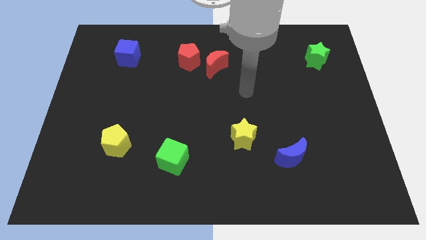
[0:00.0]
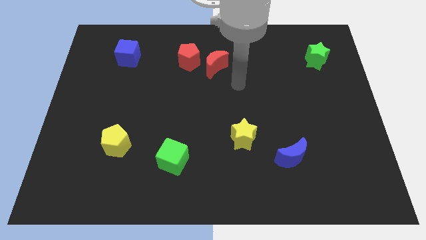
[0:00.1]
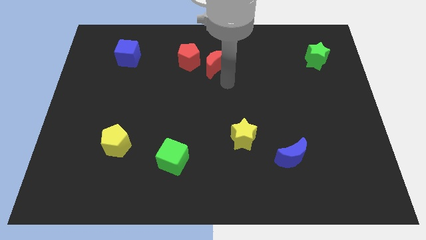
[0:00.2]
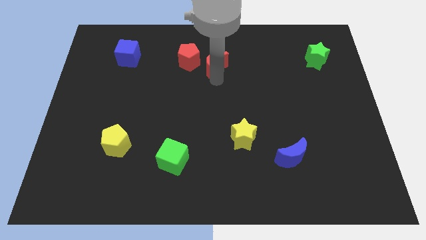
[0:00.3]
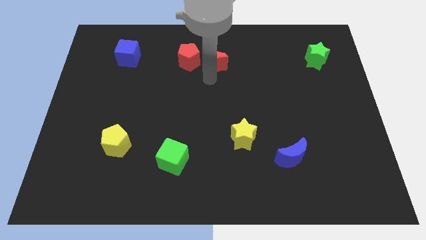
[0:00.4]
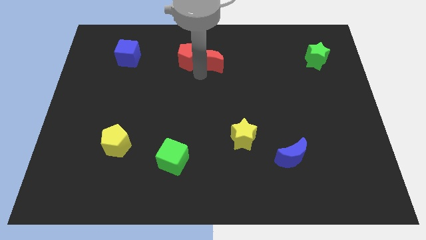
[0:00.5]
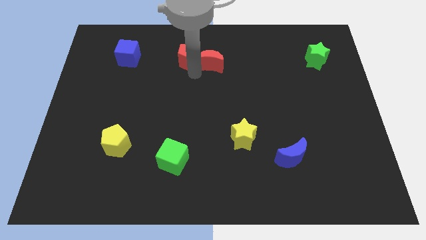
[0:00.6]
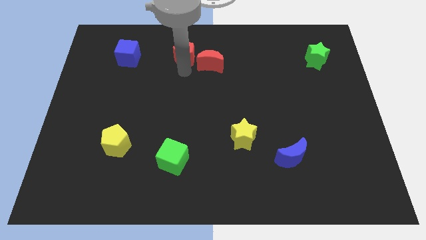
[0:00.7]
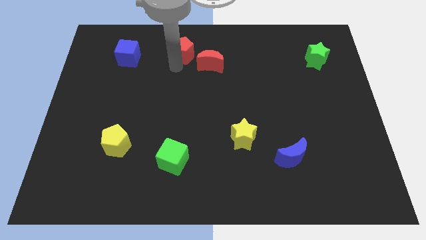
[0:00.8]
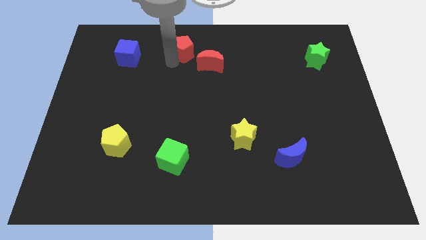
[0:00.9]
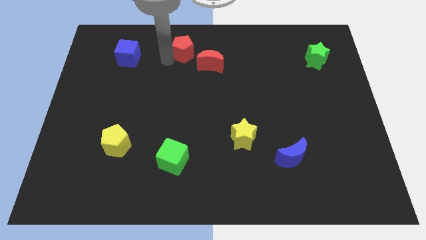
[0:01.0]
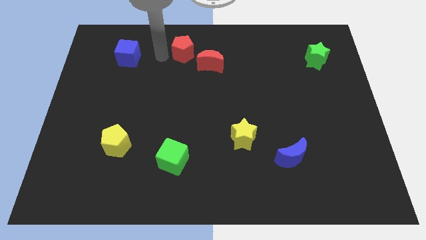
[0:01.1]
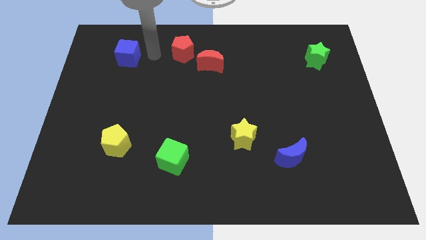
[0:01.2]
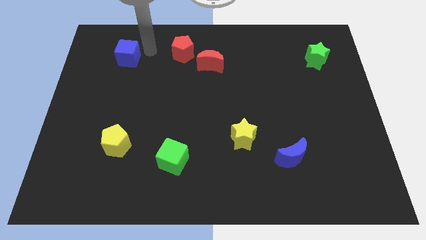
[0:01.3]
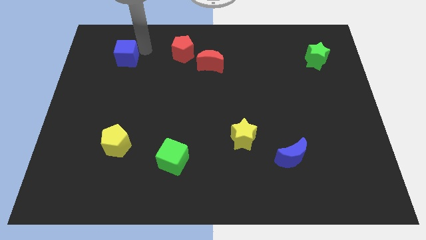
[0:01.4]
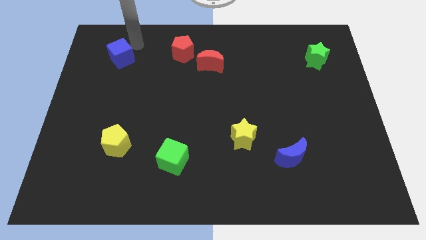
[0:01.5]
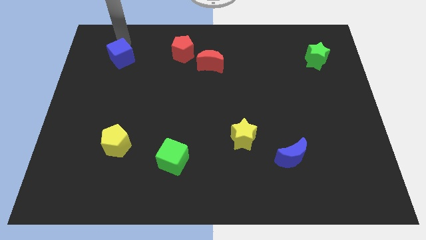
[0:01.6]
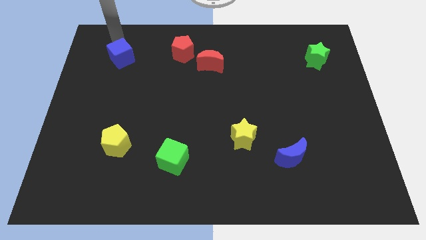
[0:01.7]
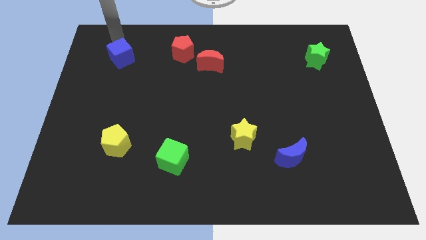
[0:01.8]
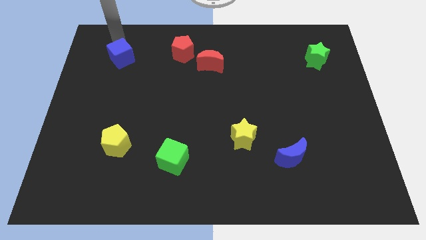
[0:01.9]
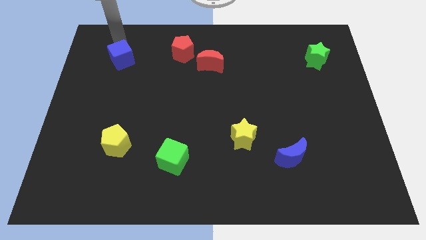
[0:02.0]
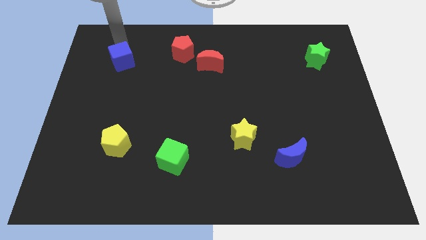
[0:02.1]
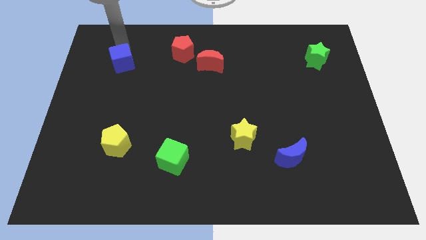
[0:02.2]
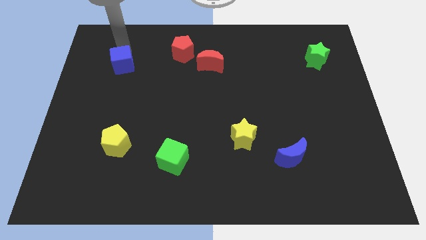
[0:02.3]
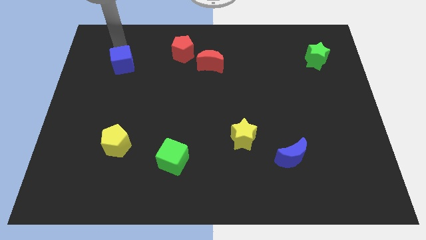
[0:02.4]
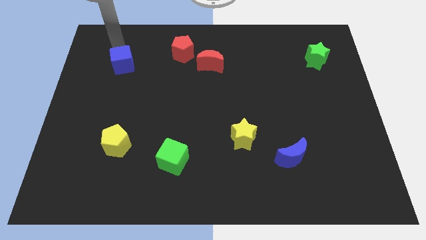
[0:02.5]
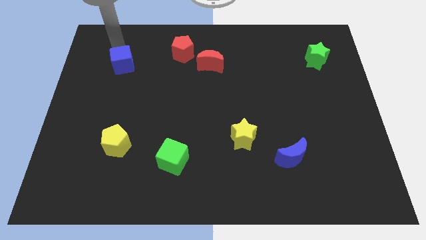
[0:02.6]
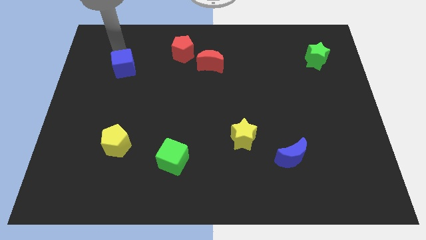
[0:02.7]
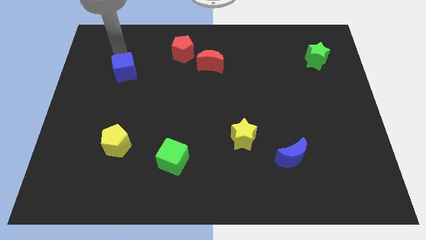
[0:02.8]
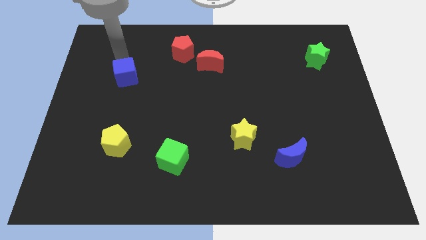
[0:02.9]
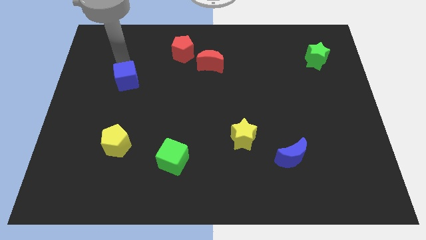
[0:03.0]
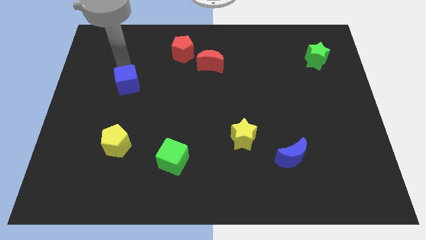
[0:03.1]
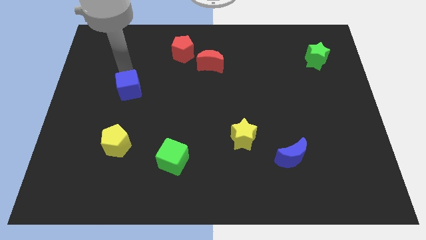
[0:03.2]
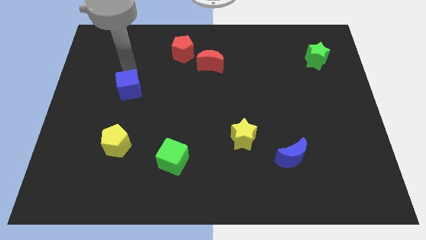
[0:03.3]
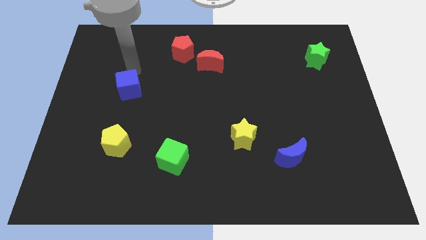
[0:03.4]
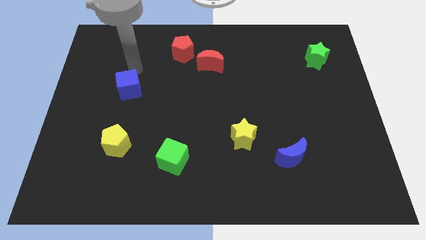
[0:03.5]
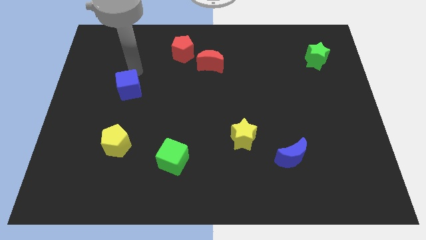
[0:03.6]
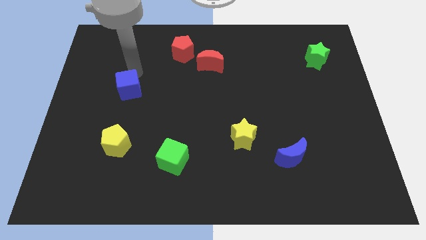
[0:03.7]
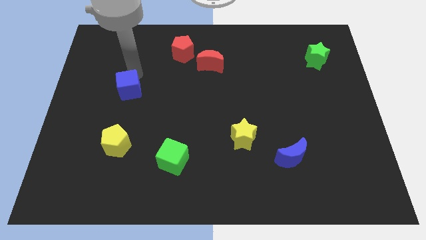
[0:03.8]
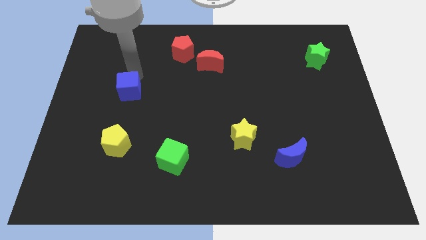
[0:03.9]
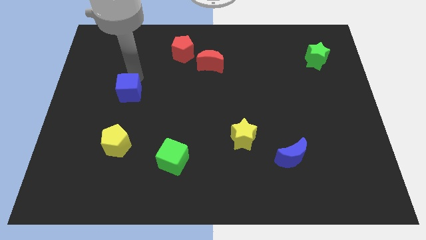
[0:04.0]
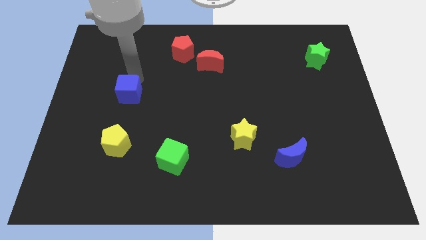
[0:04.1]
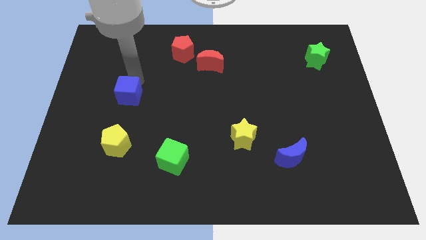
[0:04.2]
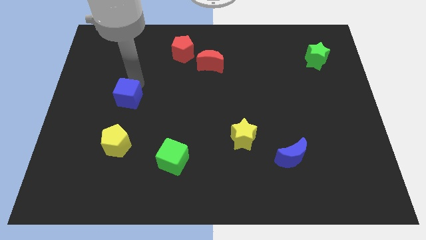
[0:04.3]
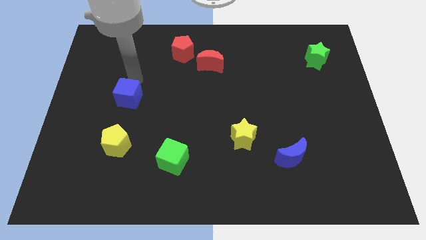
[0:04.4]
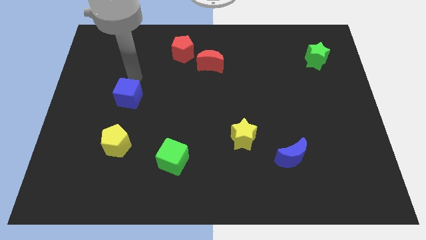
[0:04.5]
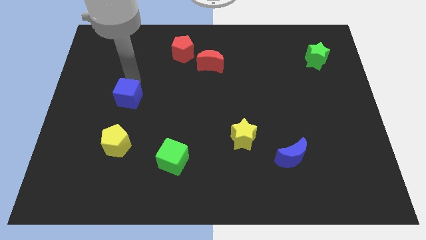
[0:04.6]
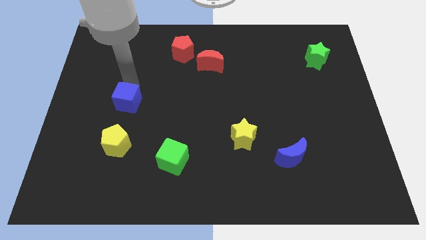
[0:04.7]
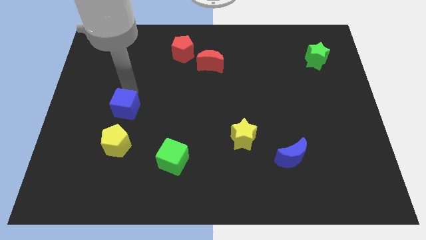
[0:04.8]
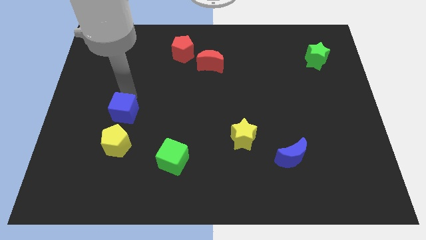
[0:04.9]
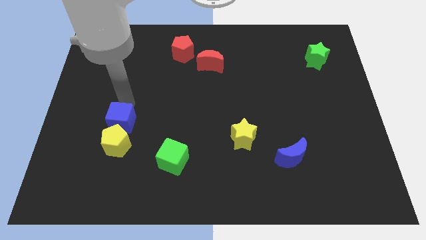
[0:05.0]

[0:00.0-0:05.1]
put the blue cube close to the yellow pentagon

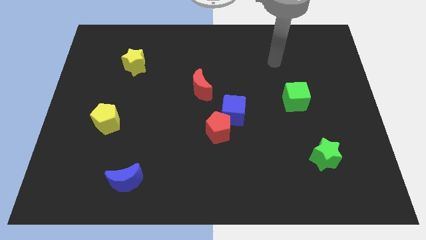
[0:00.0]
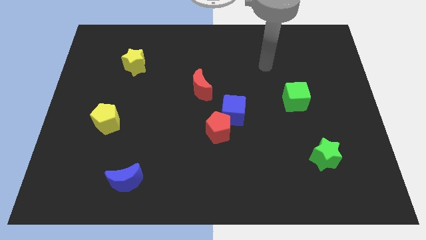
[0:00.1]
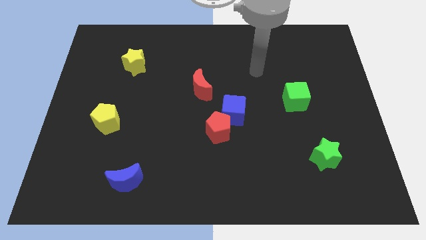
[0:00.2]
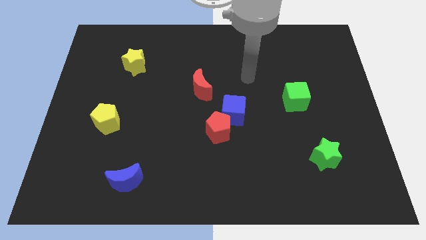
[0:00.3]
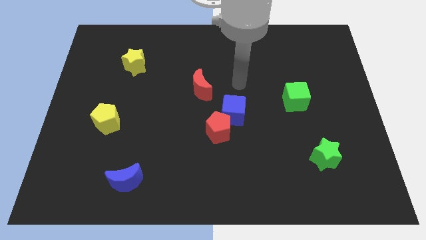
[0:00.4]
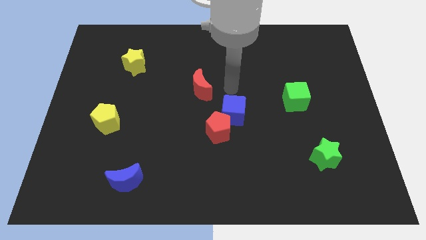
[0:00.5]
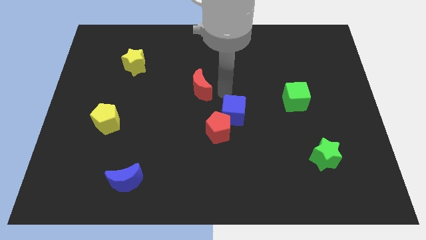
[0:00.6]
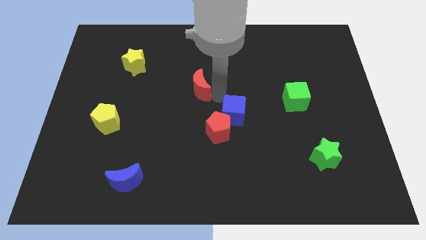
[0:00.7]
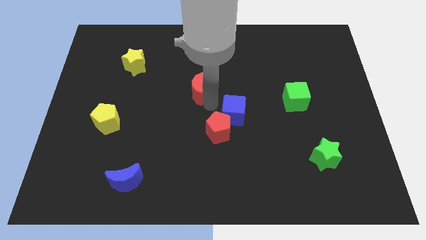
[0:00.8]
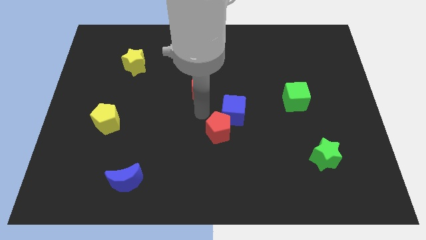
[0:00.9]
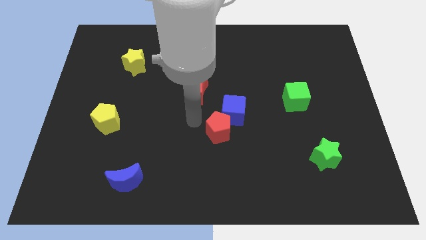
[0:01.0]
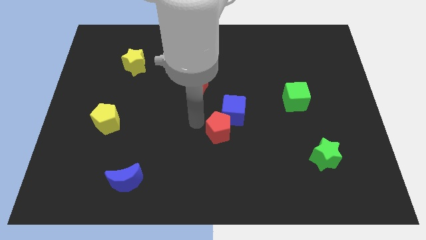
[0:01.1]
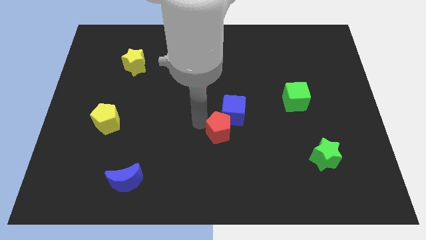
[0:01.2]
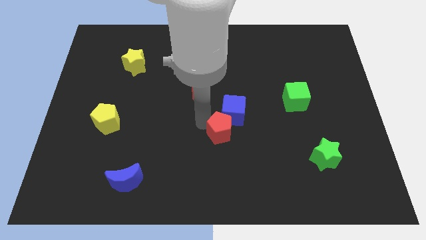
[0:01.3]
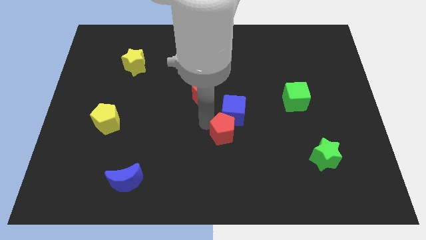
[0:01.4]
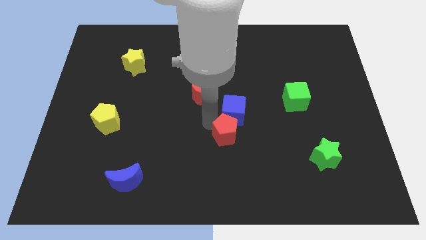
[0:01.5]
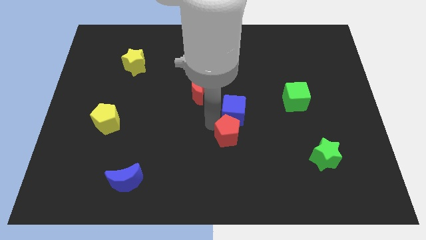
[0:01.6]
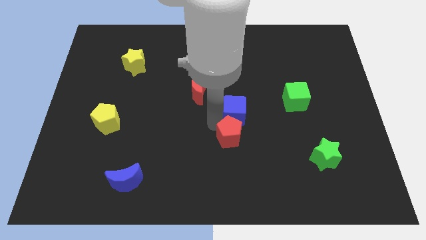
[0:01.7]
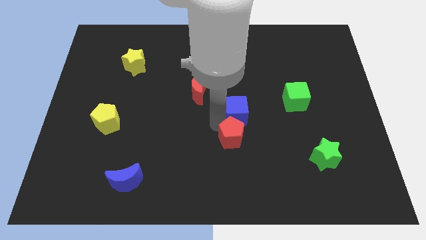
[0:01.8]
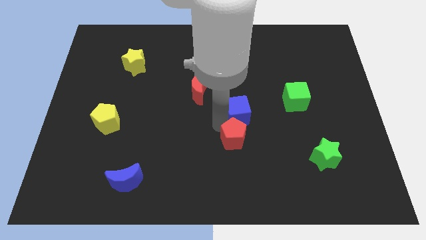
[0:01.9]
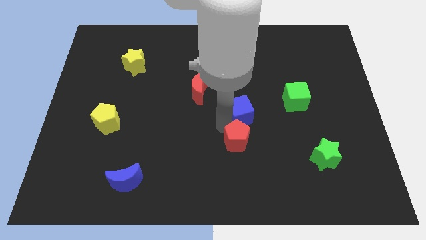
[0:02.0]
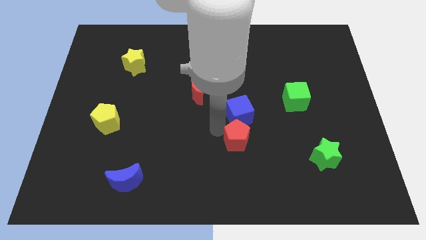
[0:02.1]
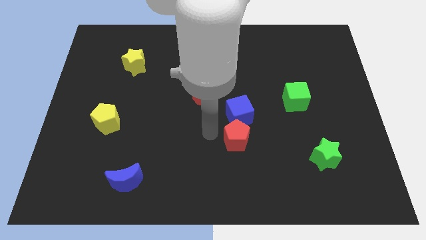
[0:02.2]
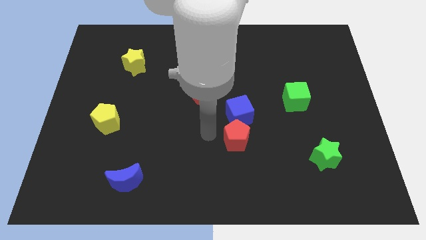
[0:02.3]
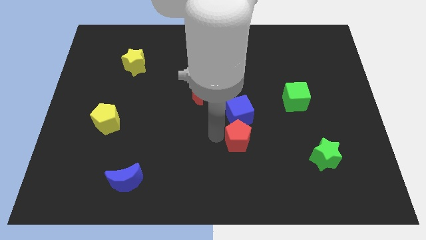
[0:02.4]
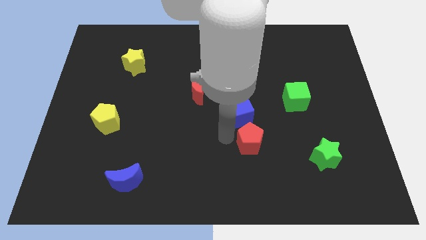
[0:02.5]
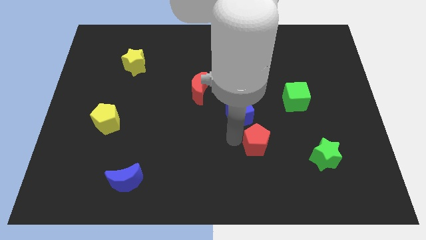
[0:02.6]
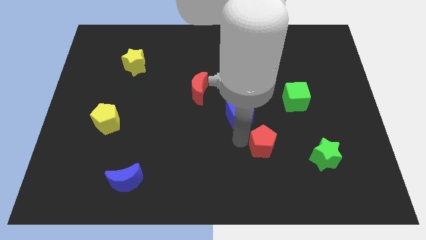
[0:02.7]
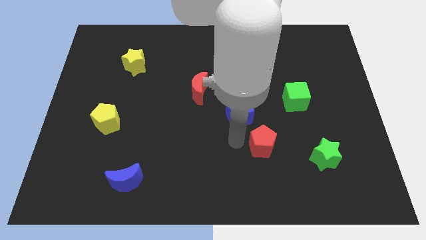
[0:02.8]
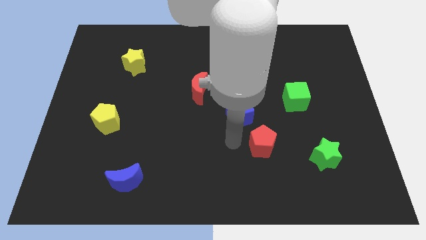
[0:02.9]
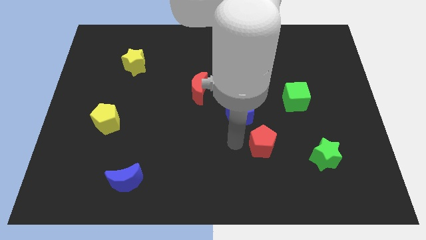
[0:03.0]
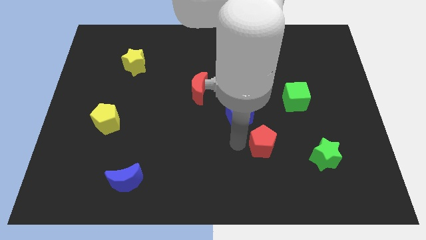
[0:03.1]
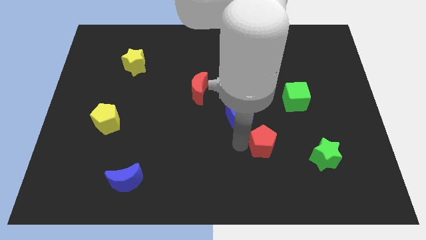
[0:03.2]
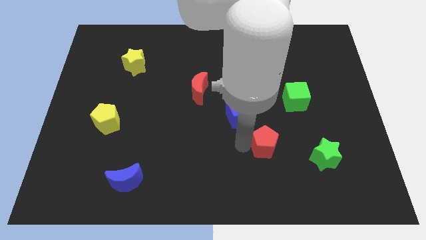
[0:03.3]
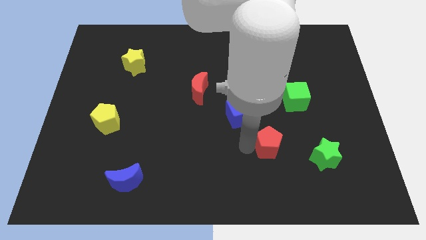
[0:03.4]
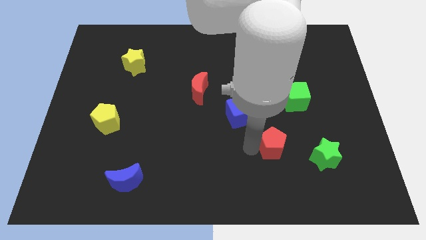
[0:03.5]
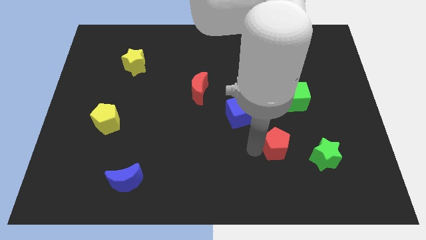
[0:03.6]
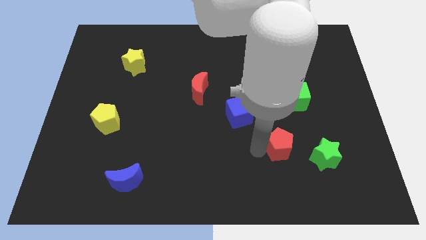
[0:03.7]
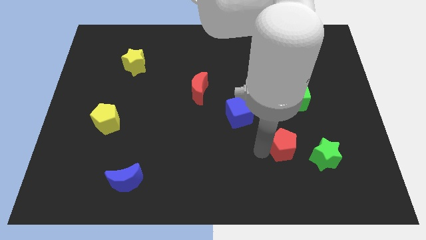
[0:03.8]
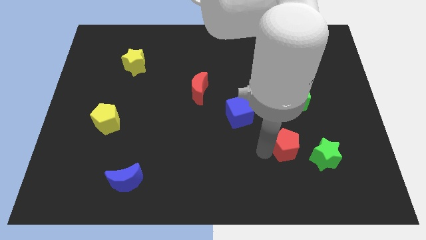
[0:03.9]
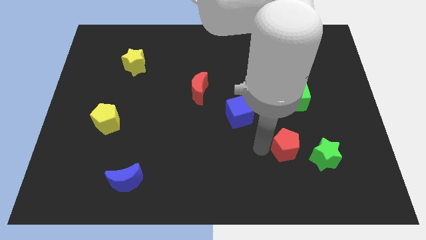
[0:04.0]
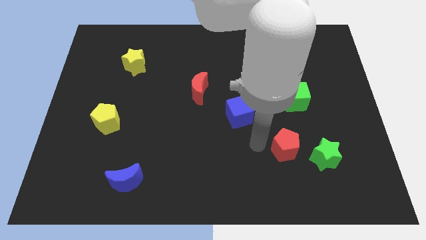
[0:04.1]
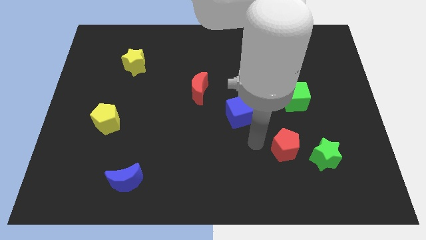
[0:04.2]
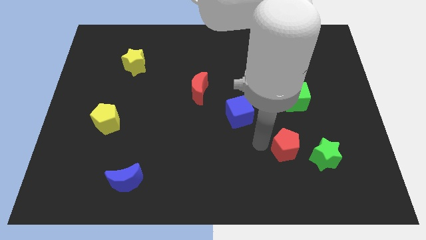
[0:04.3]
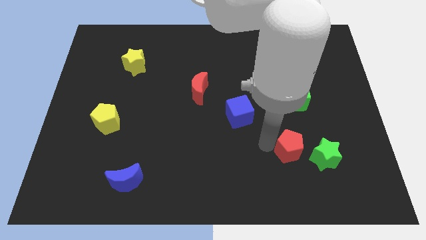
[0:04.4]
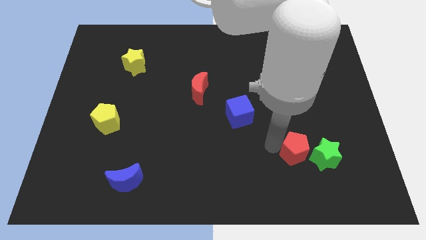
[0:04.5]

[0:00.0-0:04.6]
put the red pentagon next to the green star
